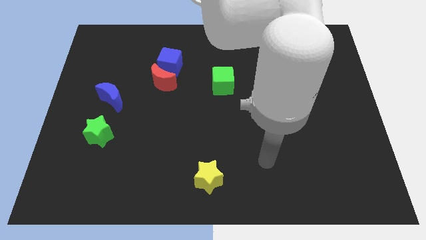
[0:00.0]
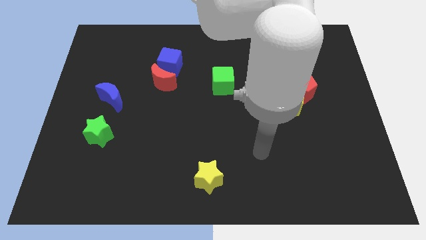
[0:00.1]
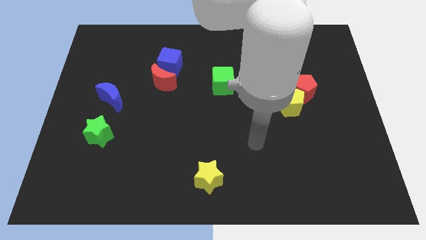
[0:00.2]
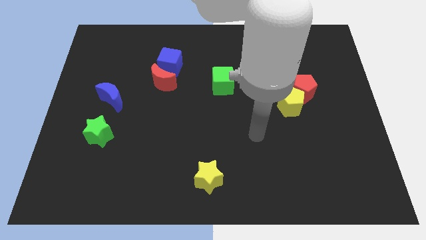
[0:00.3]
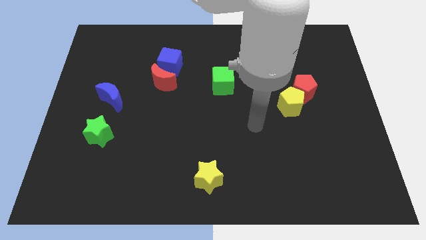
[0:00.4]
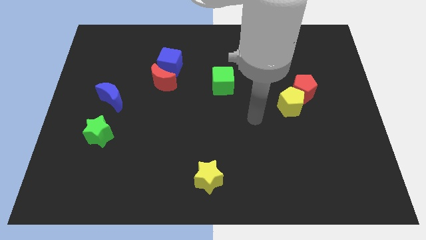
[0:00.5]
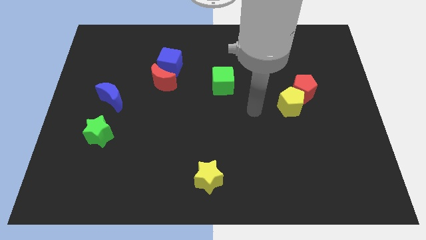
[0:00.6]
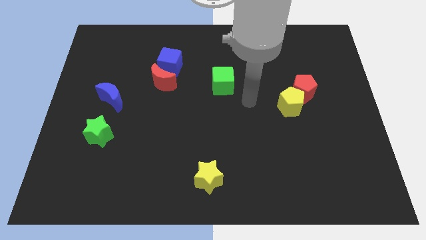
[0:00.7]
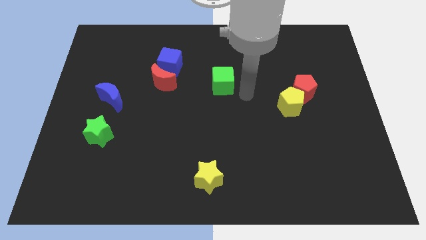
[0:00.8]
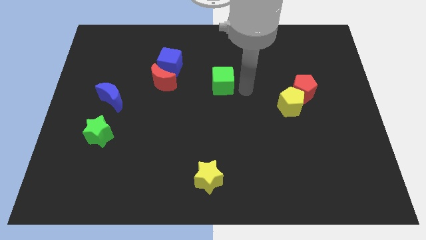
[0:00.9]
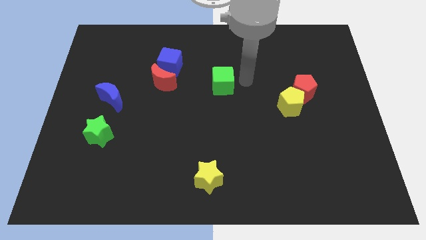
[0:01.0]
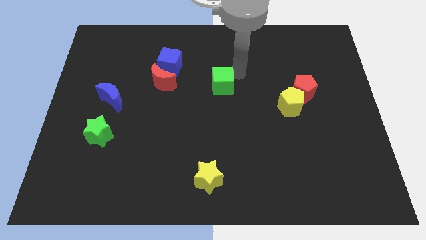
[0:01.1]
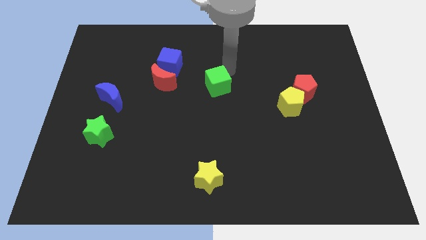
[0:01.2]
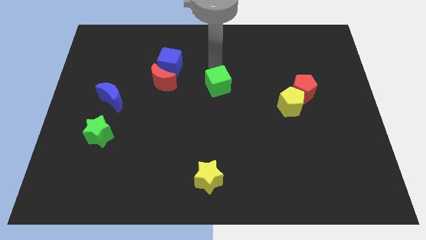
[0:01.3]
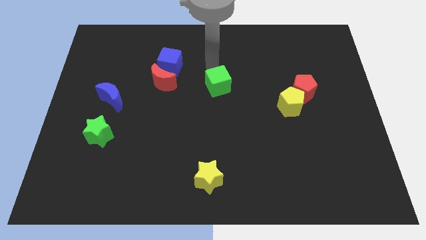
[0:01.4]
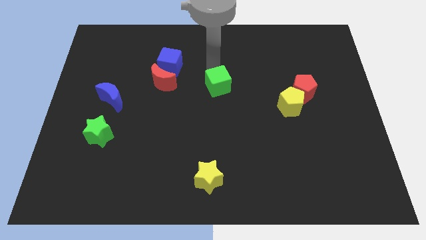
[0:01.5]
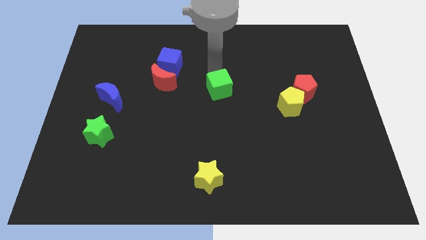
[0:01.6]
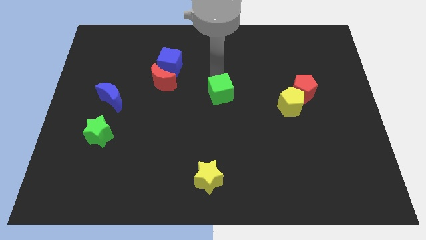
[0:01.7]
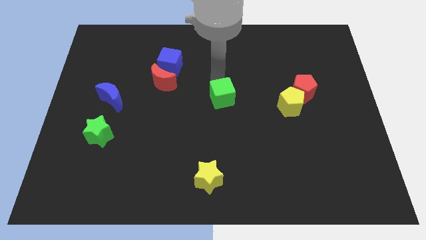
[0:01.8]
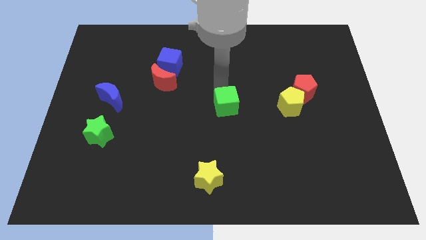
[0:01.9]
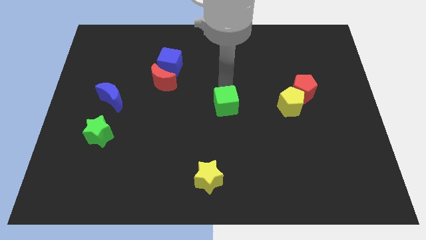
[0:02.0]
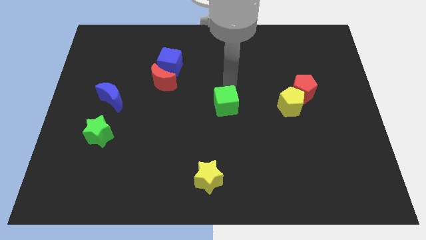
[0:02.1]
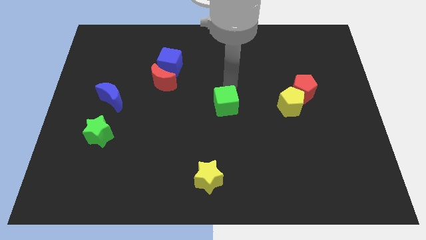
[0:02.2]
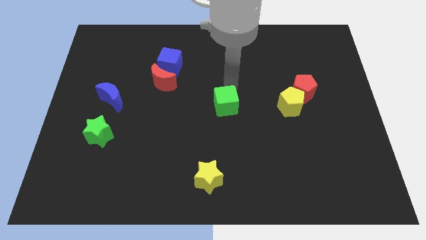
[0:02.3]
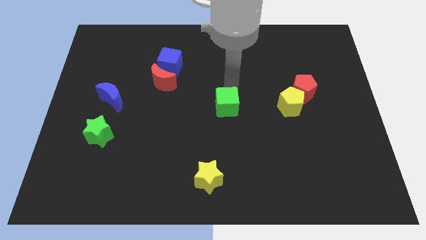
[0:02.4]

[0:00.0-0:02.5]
slightly slide the green cube down

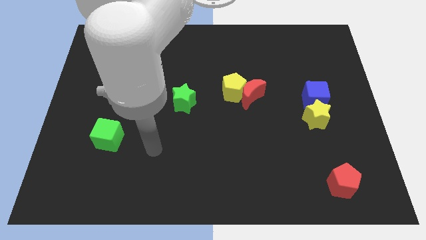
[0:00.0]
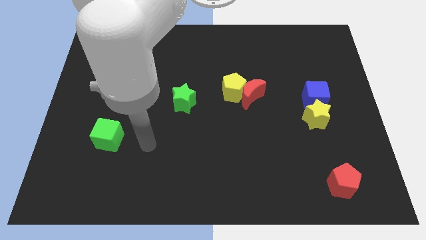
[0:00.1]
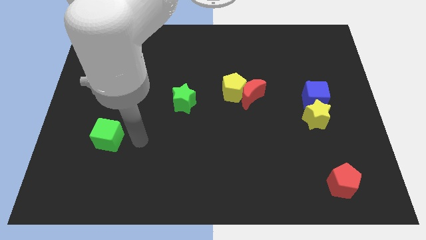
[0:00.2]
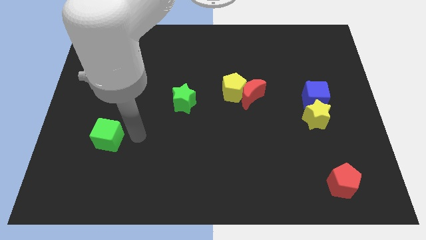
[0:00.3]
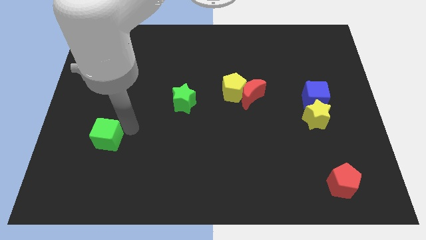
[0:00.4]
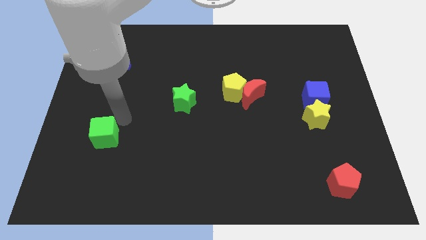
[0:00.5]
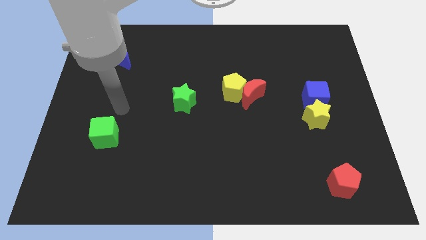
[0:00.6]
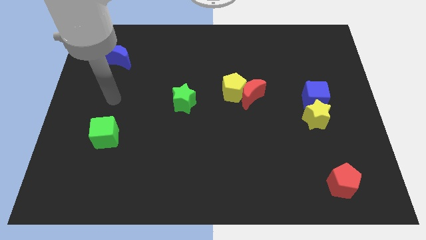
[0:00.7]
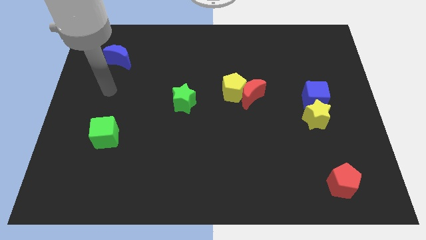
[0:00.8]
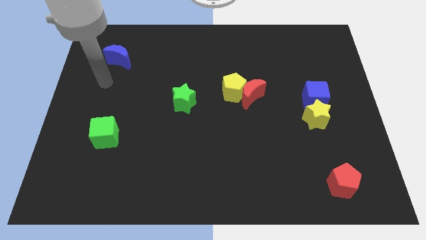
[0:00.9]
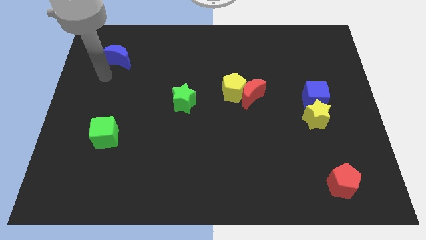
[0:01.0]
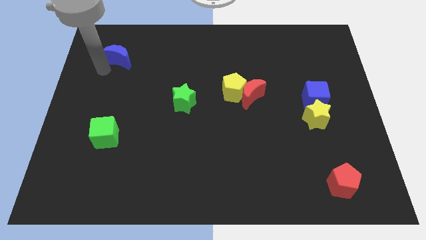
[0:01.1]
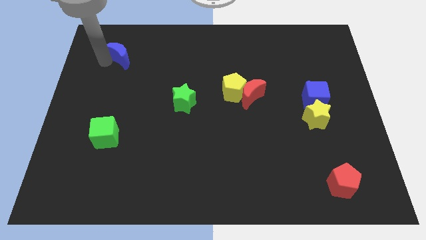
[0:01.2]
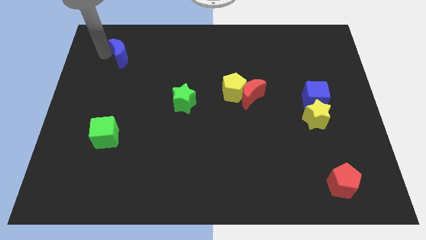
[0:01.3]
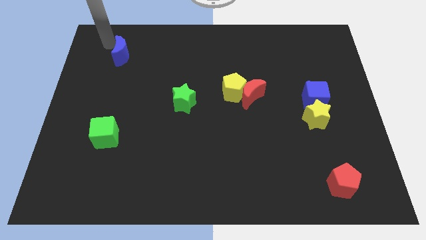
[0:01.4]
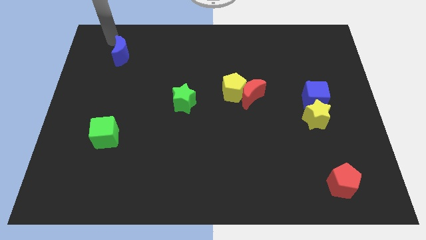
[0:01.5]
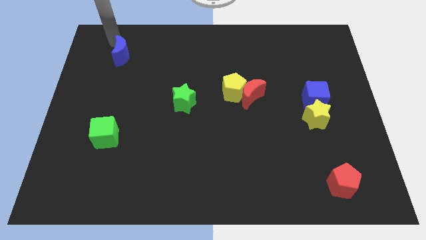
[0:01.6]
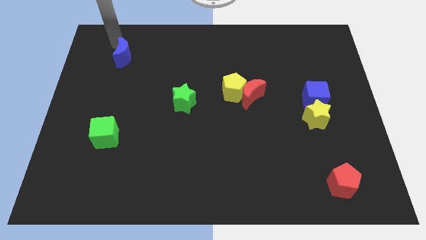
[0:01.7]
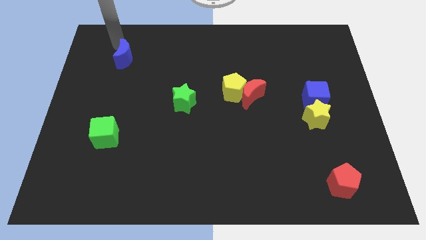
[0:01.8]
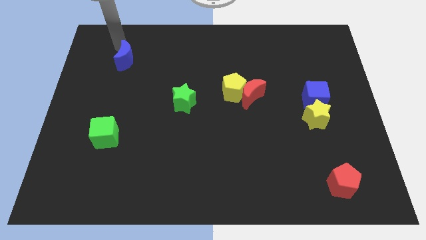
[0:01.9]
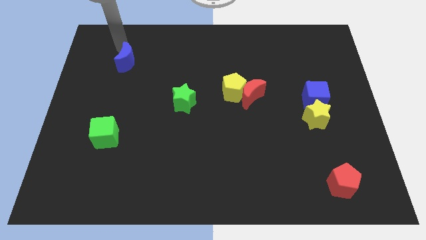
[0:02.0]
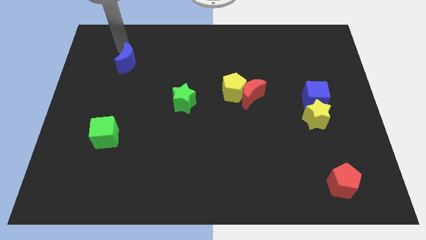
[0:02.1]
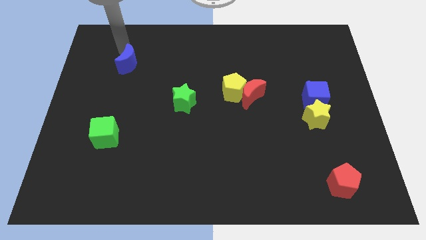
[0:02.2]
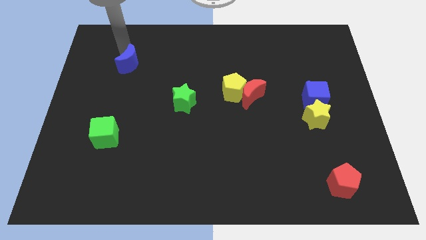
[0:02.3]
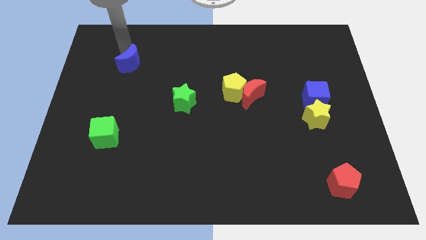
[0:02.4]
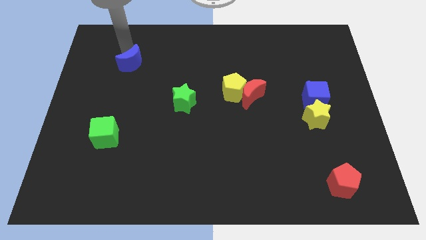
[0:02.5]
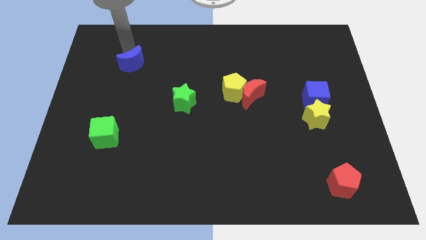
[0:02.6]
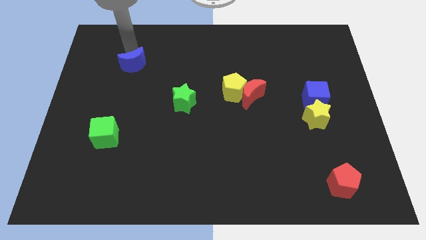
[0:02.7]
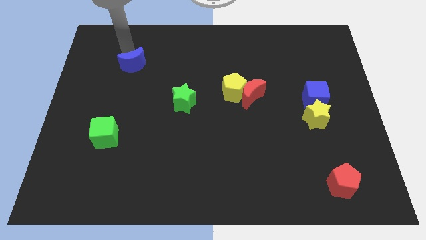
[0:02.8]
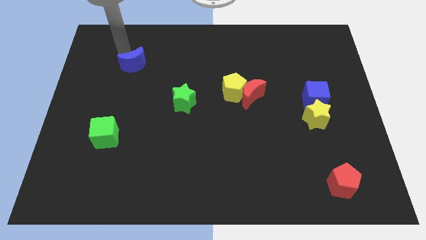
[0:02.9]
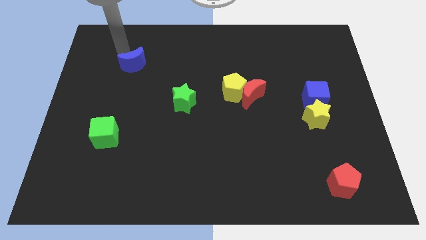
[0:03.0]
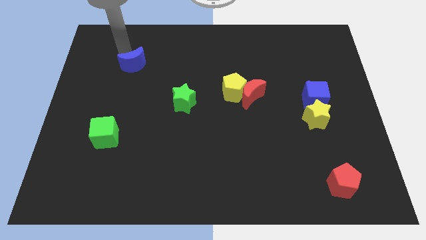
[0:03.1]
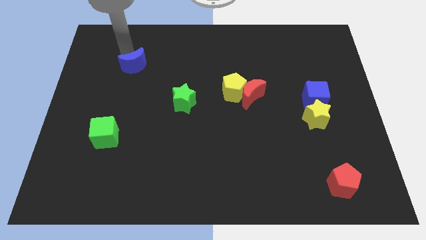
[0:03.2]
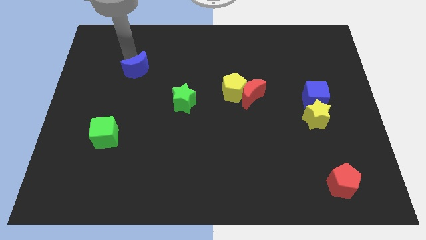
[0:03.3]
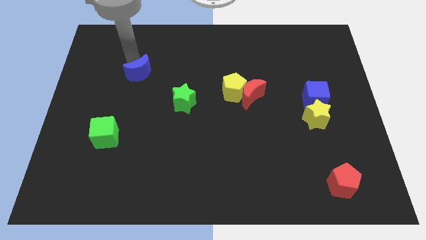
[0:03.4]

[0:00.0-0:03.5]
slightly push the blue moon down and to the right

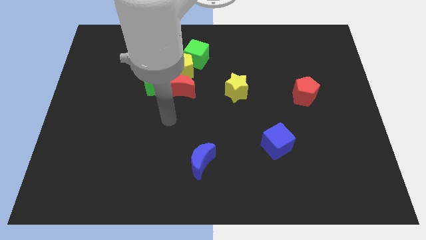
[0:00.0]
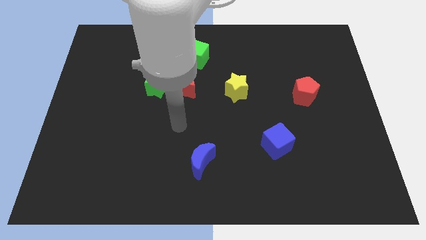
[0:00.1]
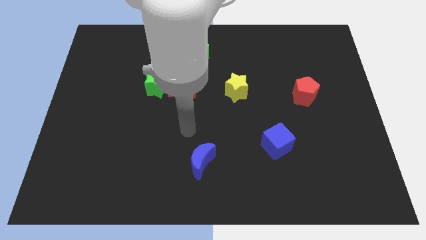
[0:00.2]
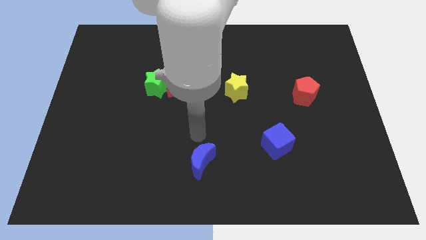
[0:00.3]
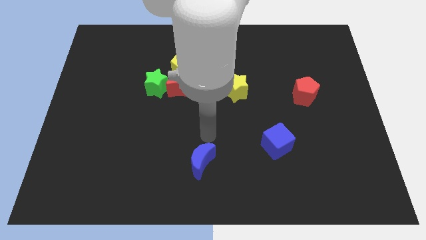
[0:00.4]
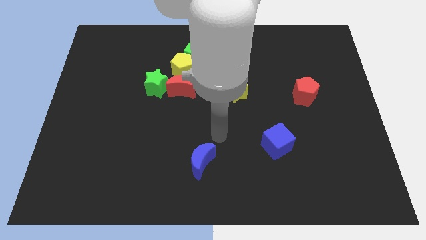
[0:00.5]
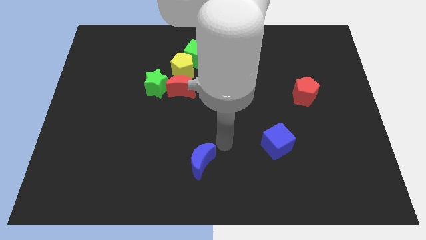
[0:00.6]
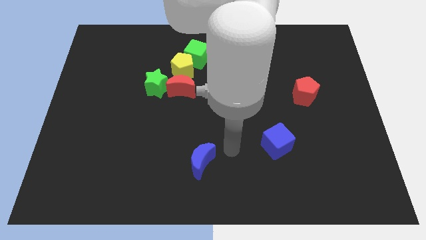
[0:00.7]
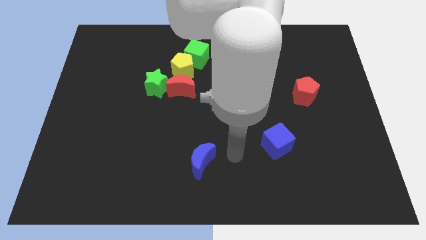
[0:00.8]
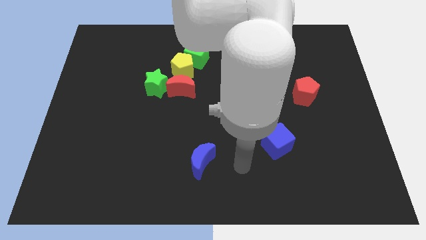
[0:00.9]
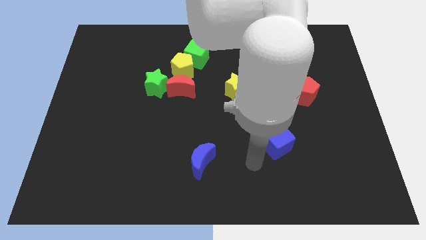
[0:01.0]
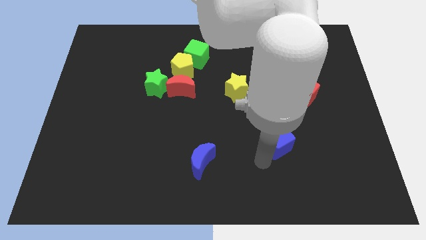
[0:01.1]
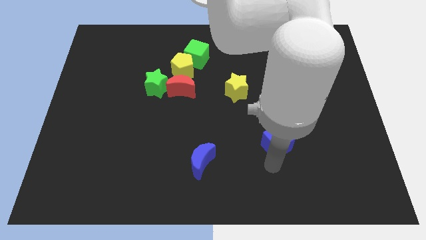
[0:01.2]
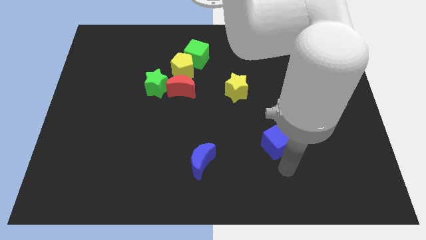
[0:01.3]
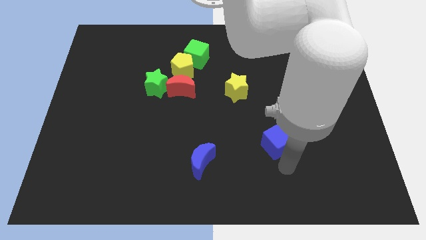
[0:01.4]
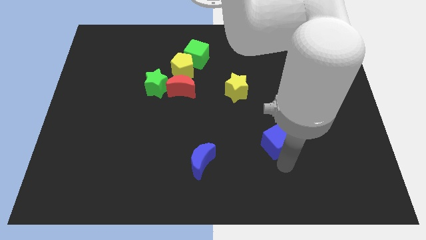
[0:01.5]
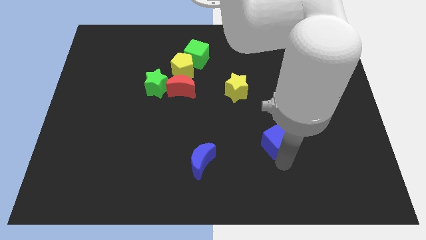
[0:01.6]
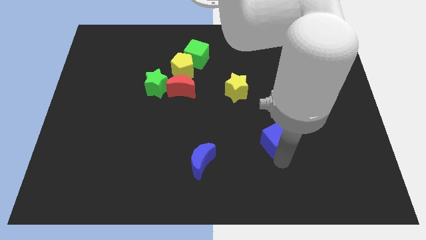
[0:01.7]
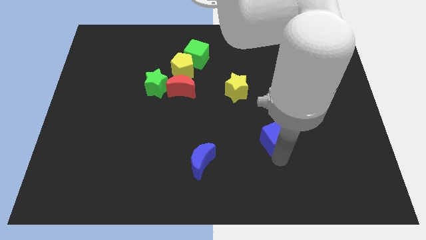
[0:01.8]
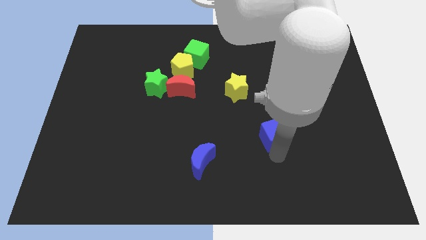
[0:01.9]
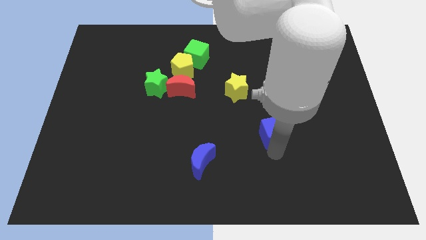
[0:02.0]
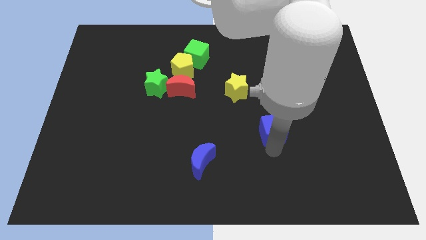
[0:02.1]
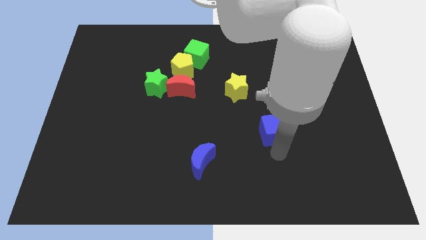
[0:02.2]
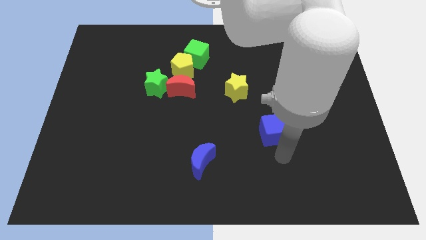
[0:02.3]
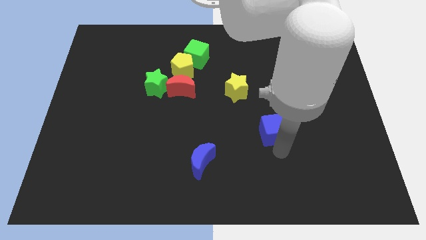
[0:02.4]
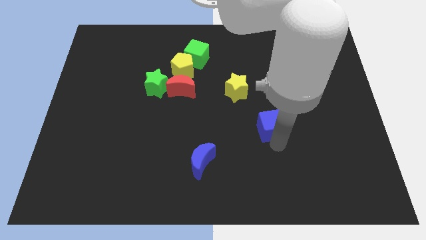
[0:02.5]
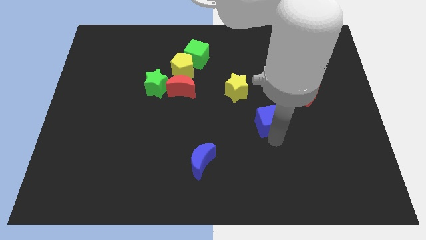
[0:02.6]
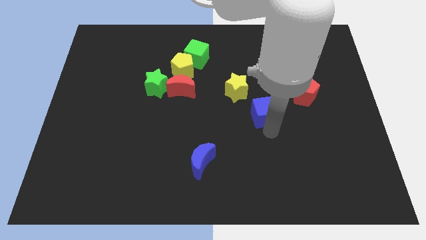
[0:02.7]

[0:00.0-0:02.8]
move the blue cube slightly upwards
